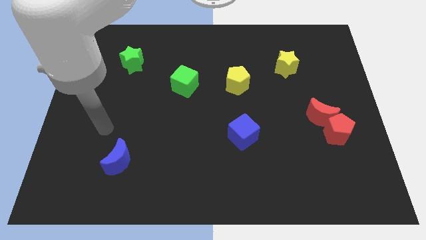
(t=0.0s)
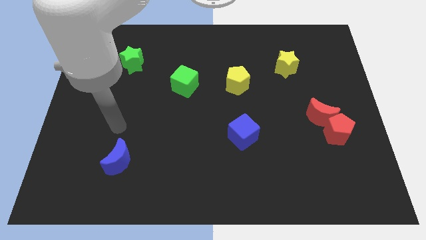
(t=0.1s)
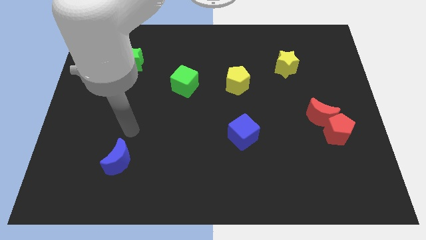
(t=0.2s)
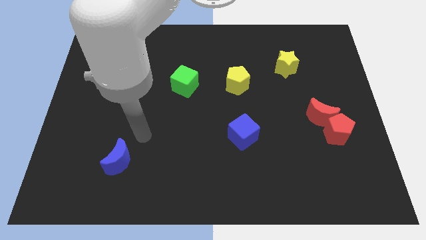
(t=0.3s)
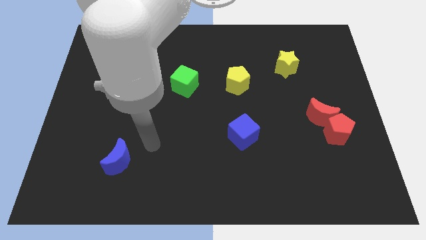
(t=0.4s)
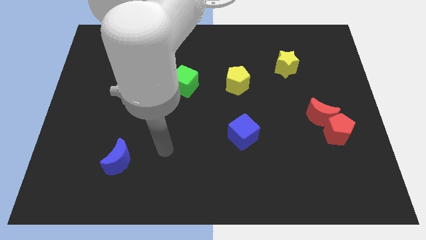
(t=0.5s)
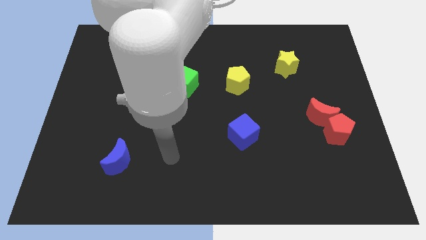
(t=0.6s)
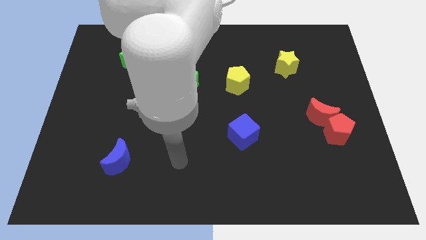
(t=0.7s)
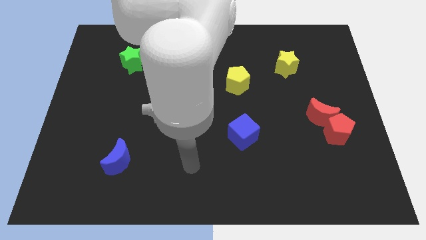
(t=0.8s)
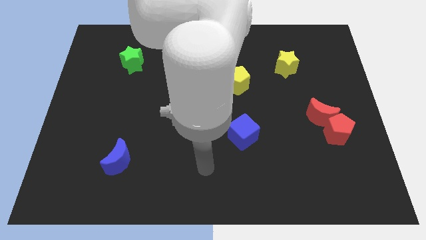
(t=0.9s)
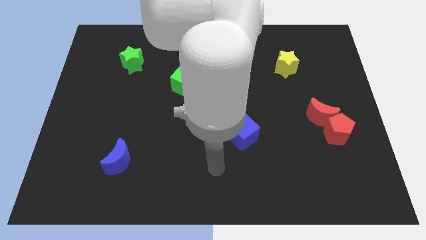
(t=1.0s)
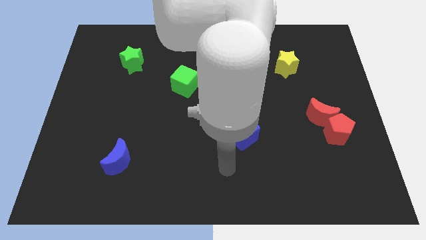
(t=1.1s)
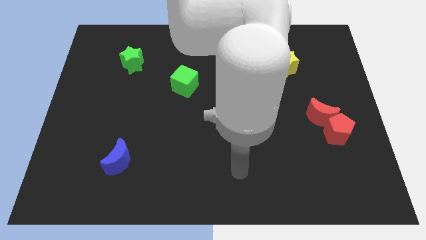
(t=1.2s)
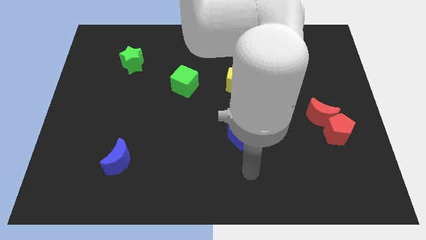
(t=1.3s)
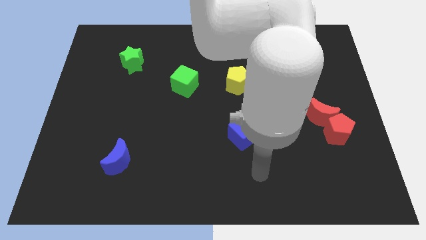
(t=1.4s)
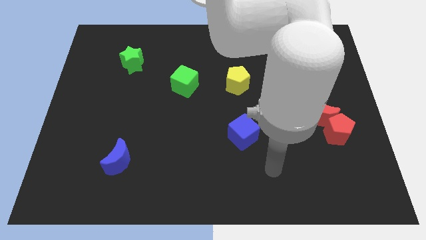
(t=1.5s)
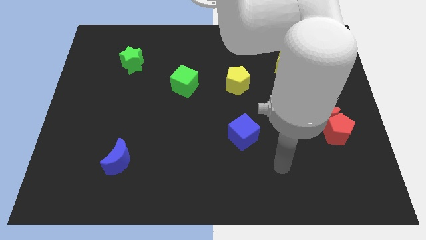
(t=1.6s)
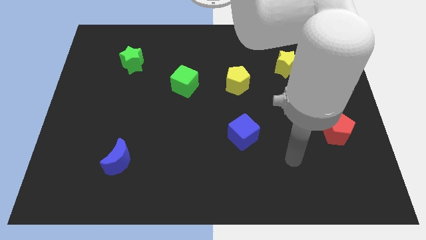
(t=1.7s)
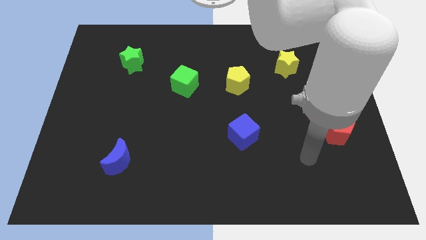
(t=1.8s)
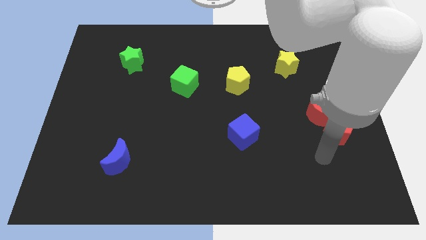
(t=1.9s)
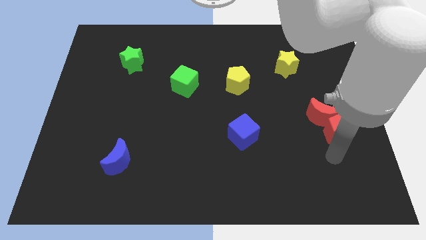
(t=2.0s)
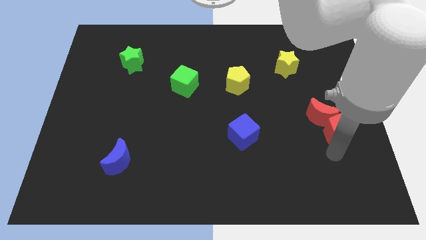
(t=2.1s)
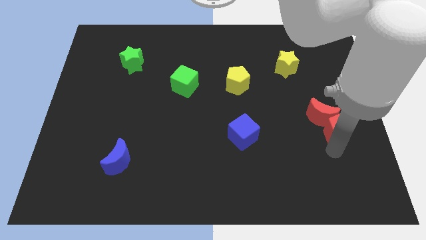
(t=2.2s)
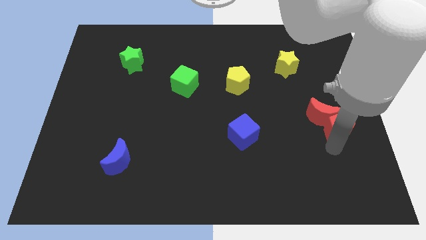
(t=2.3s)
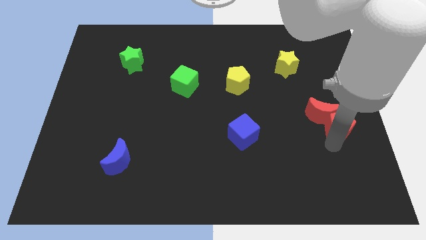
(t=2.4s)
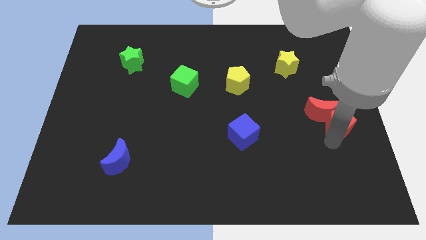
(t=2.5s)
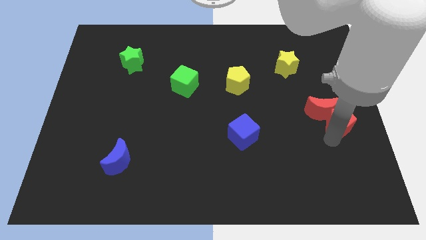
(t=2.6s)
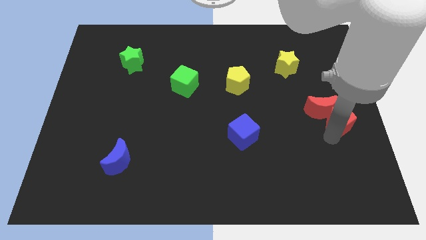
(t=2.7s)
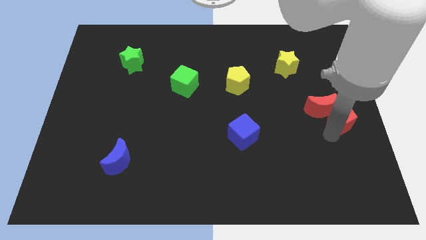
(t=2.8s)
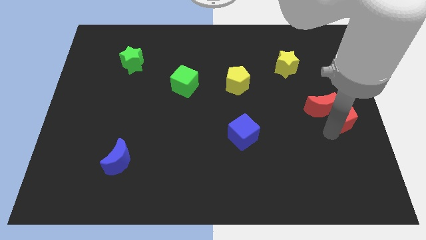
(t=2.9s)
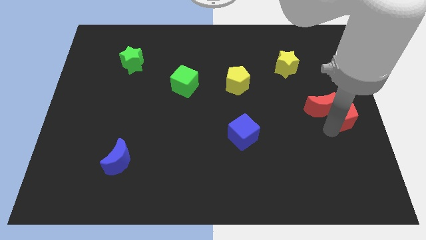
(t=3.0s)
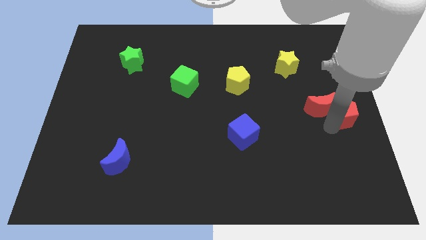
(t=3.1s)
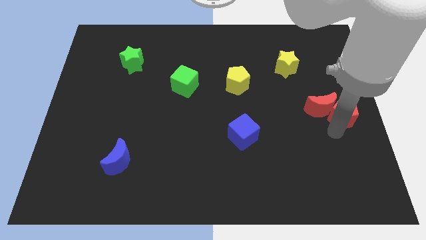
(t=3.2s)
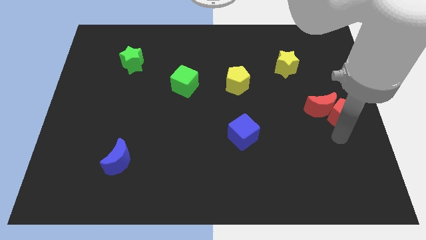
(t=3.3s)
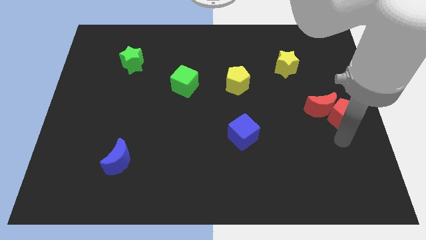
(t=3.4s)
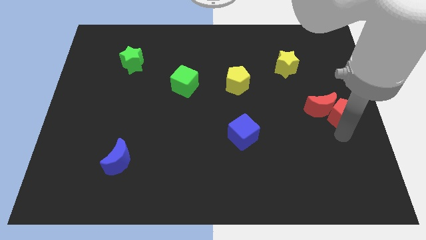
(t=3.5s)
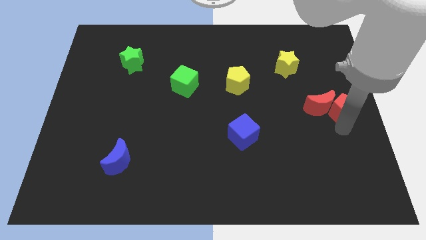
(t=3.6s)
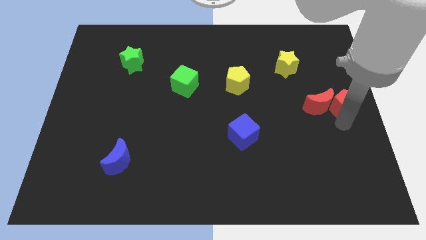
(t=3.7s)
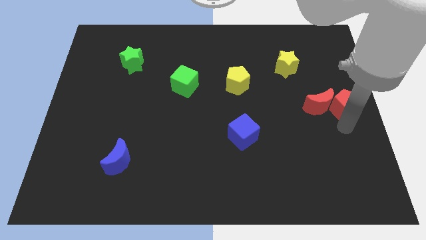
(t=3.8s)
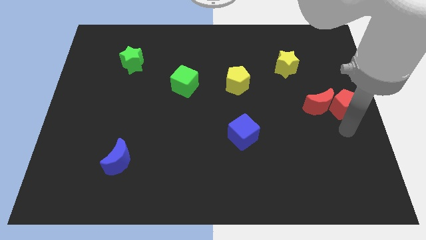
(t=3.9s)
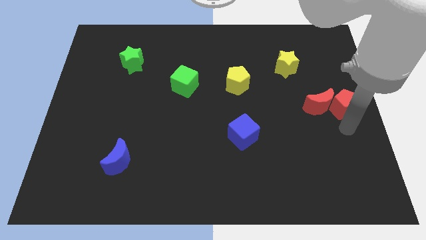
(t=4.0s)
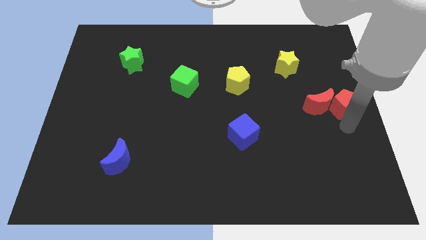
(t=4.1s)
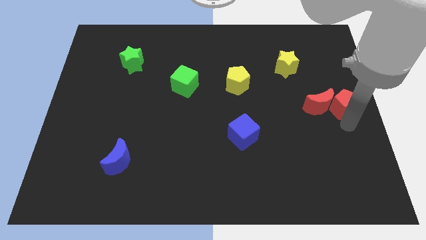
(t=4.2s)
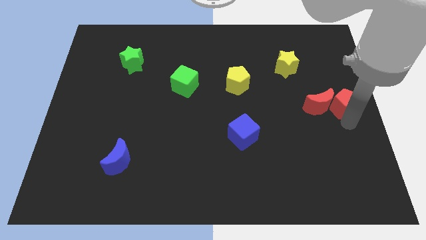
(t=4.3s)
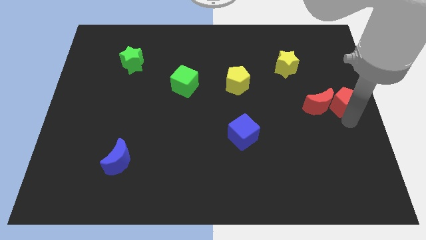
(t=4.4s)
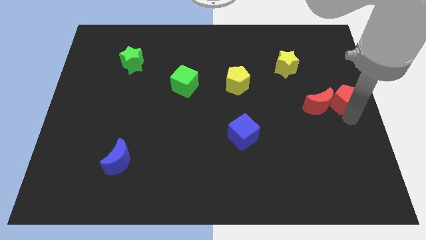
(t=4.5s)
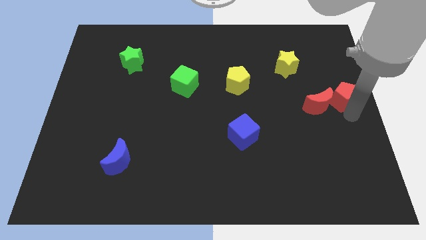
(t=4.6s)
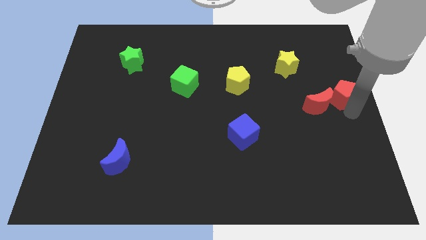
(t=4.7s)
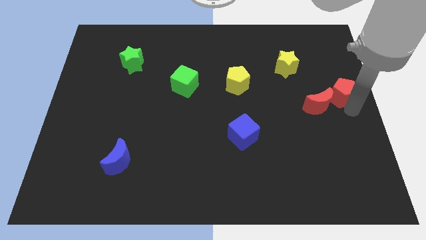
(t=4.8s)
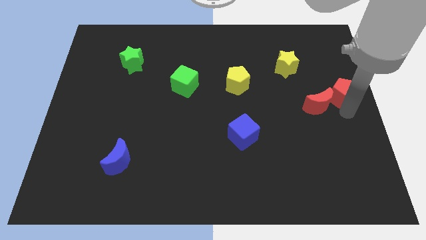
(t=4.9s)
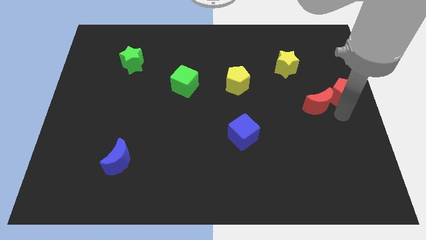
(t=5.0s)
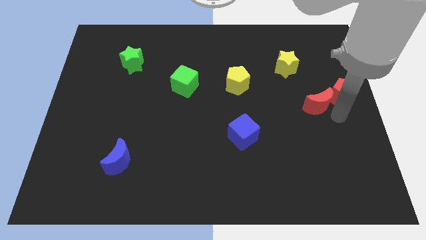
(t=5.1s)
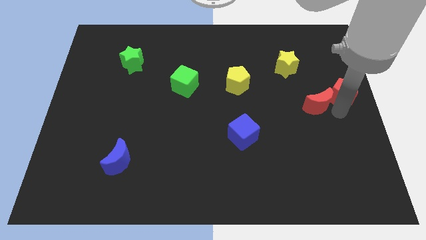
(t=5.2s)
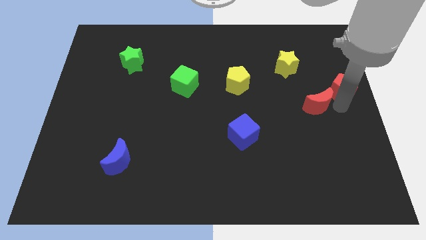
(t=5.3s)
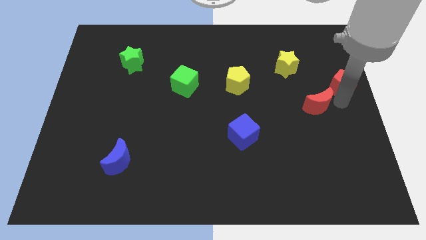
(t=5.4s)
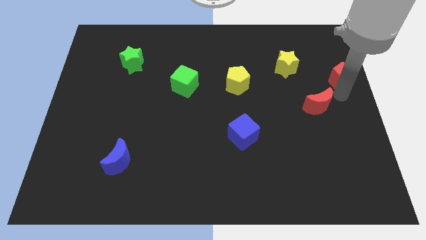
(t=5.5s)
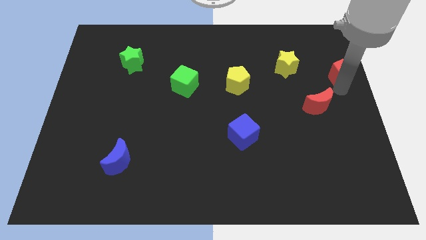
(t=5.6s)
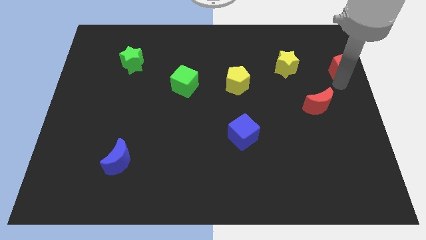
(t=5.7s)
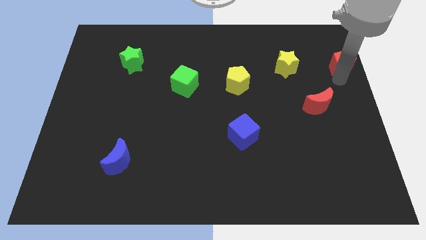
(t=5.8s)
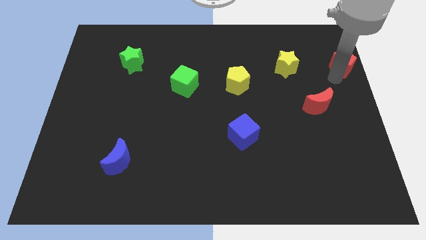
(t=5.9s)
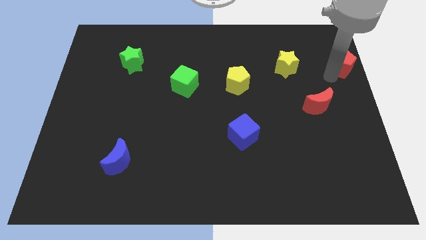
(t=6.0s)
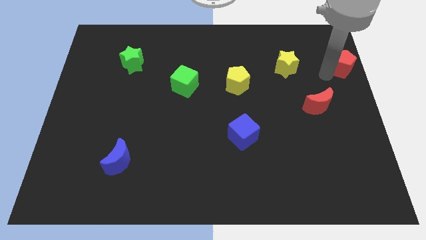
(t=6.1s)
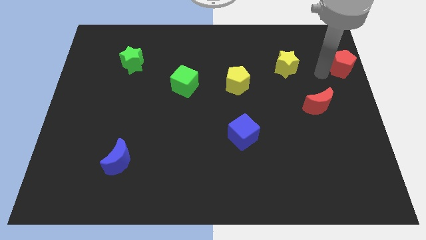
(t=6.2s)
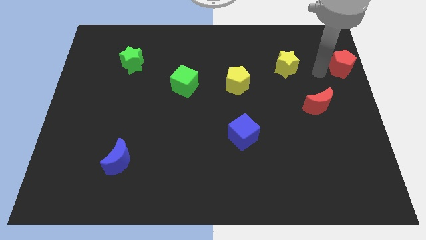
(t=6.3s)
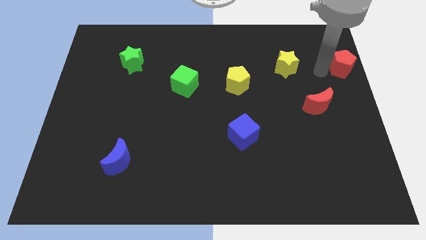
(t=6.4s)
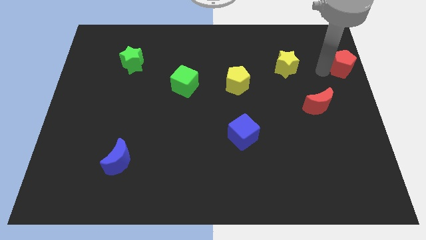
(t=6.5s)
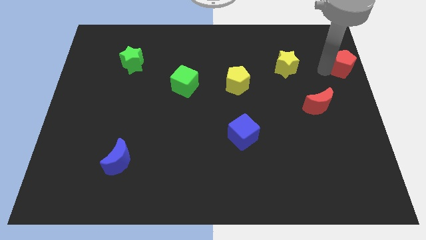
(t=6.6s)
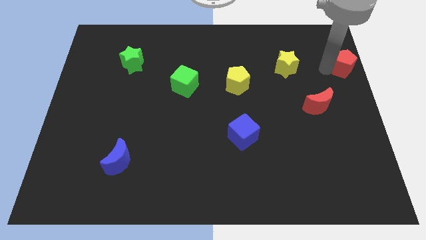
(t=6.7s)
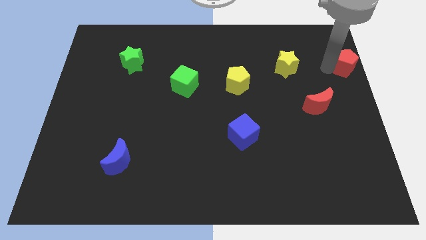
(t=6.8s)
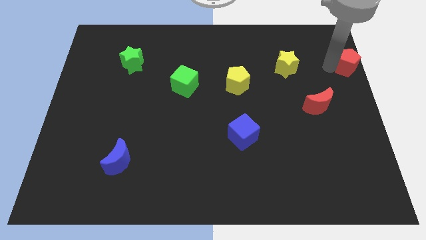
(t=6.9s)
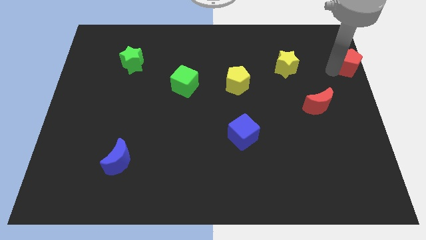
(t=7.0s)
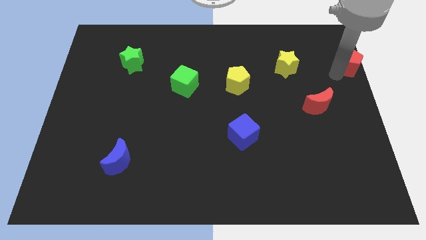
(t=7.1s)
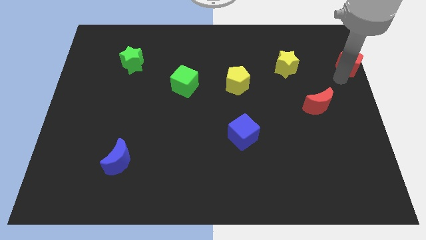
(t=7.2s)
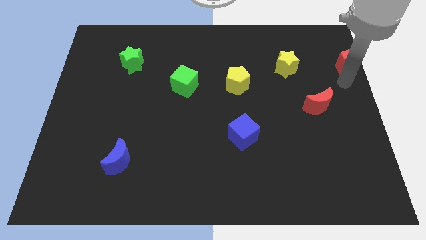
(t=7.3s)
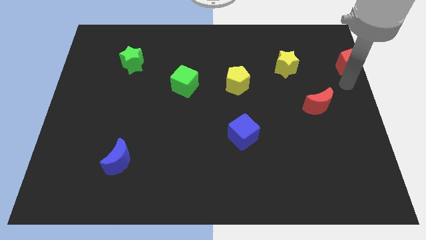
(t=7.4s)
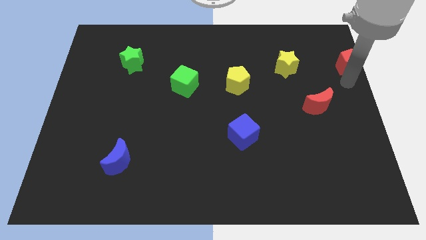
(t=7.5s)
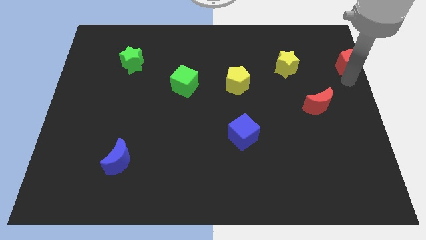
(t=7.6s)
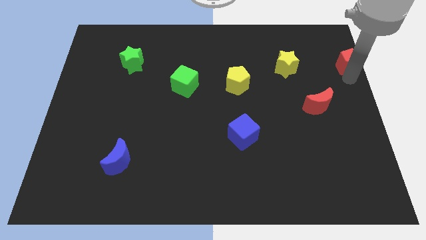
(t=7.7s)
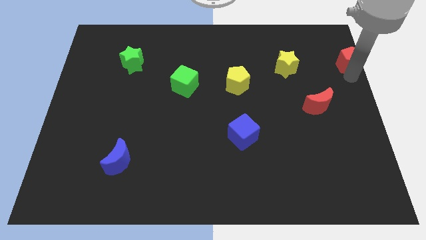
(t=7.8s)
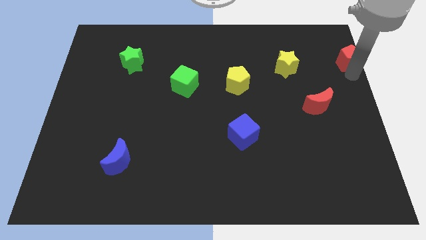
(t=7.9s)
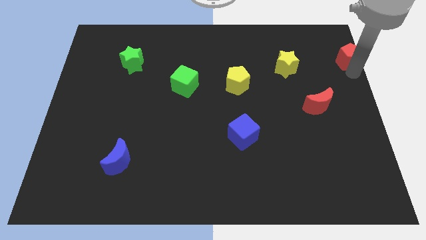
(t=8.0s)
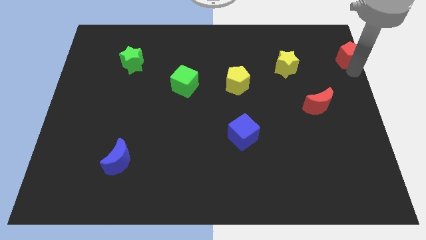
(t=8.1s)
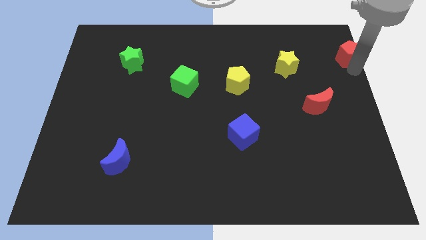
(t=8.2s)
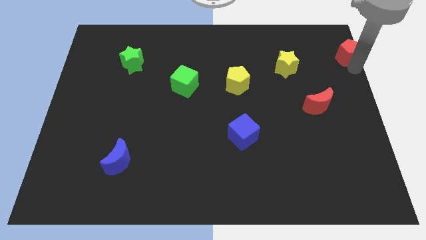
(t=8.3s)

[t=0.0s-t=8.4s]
move the red pentagon to the top right
